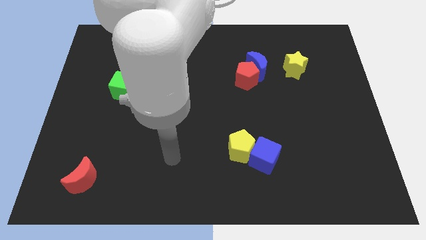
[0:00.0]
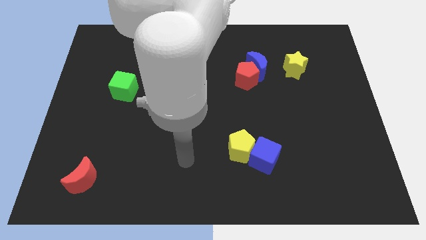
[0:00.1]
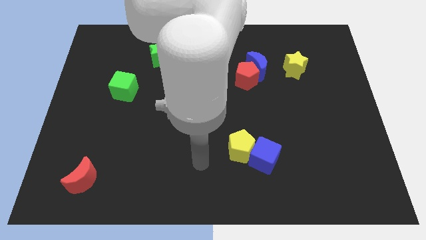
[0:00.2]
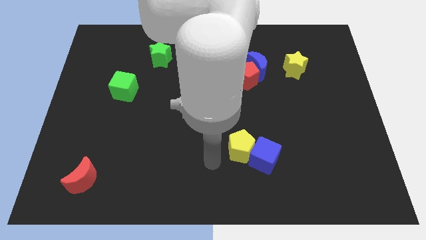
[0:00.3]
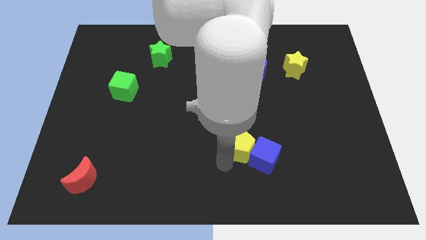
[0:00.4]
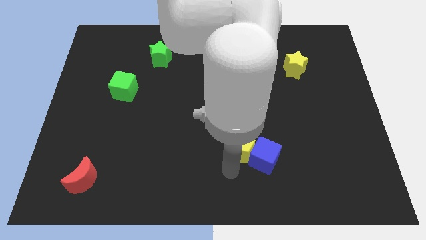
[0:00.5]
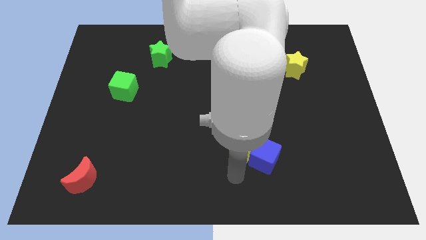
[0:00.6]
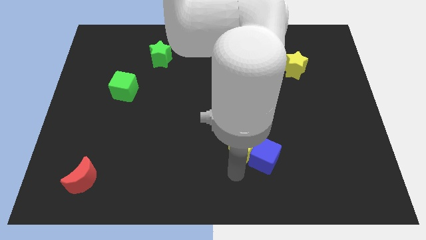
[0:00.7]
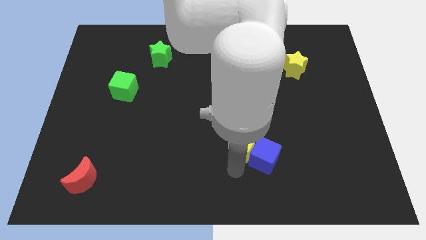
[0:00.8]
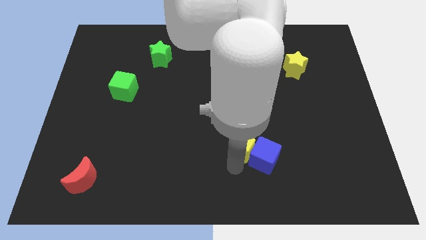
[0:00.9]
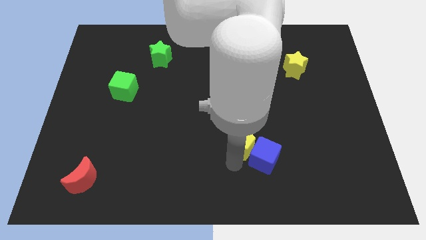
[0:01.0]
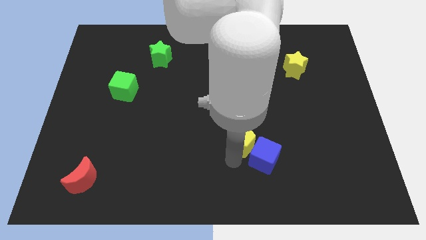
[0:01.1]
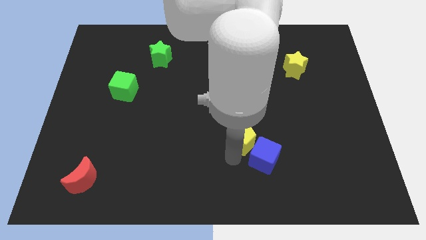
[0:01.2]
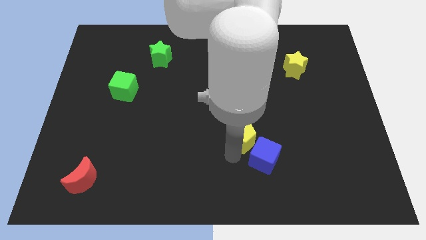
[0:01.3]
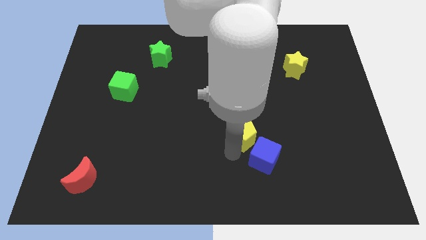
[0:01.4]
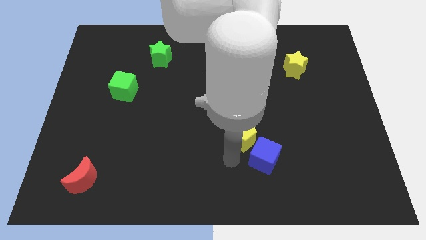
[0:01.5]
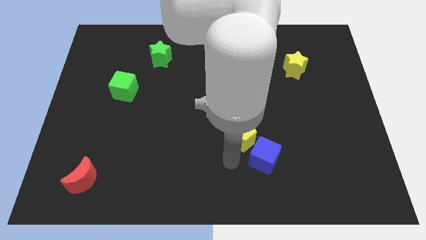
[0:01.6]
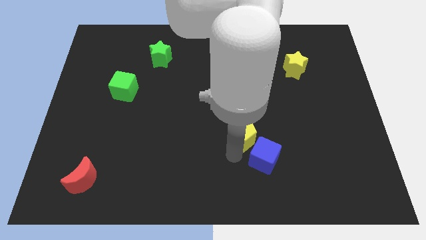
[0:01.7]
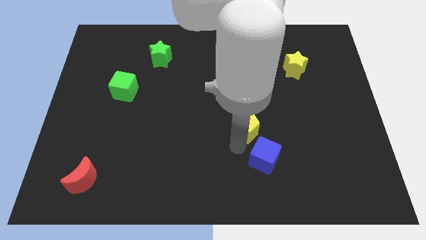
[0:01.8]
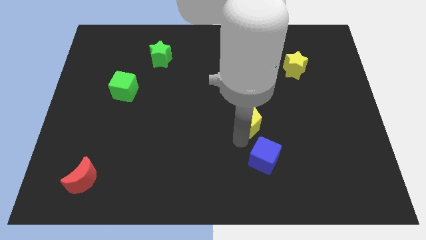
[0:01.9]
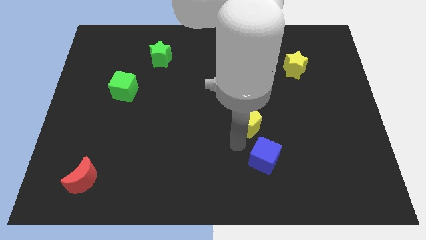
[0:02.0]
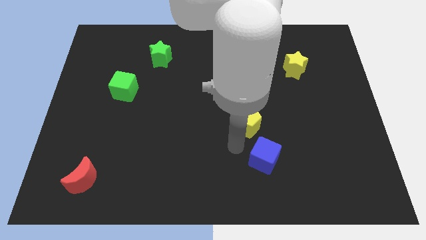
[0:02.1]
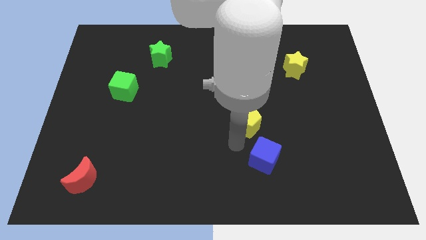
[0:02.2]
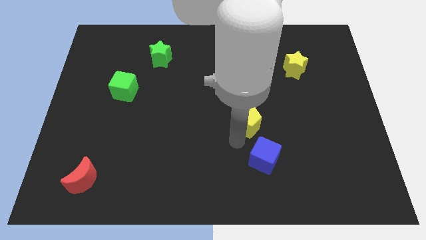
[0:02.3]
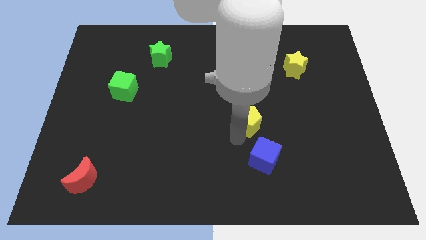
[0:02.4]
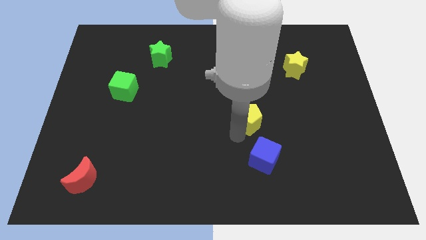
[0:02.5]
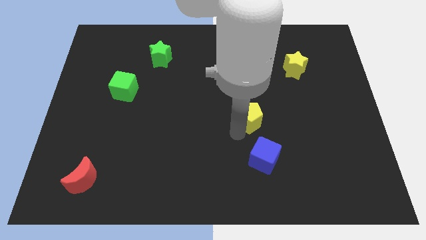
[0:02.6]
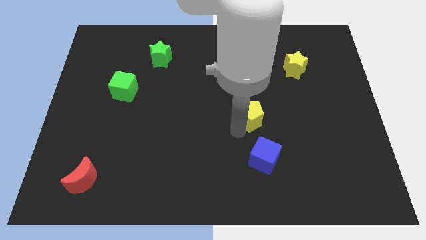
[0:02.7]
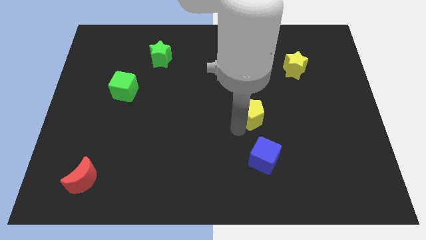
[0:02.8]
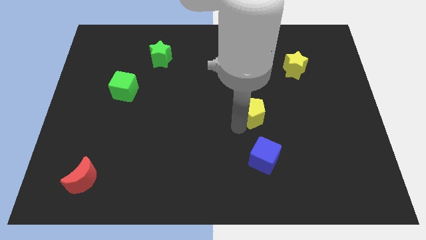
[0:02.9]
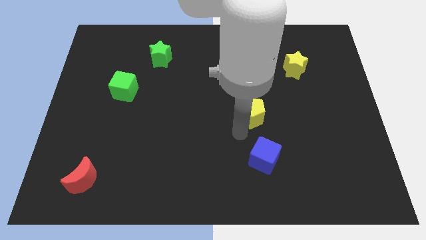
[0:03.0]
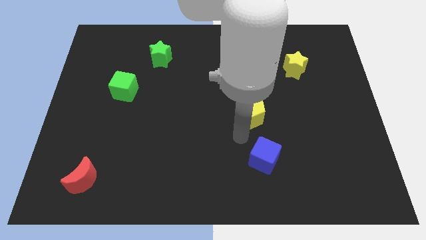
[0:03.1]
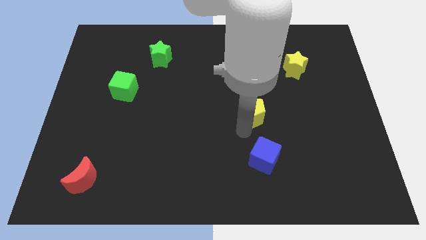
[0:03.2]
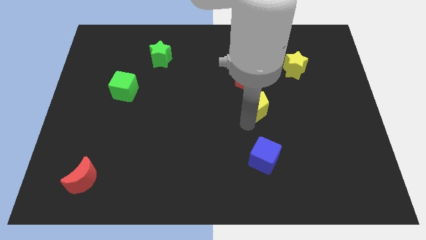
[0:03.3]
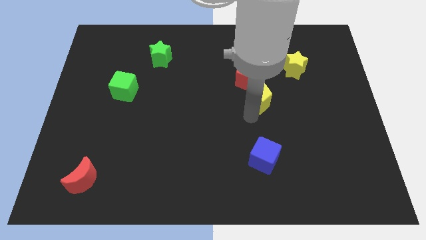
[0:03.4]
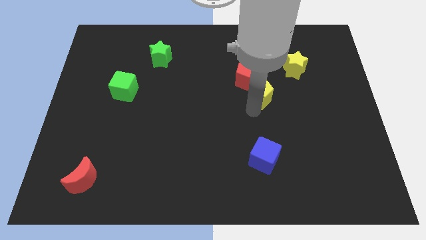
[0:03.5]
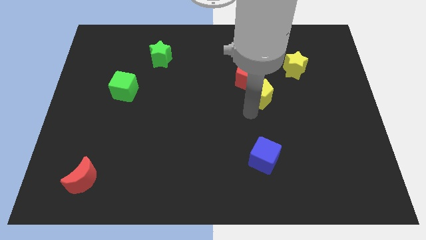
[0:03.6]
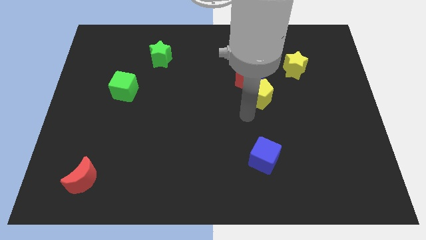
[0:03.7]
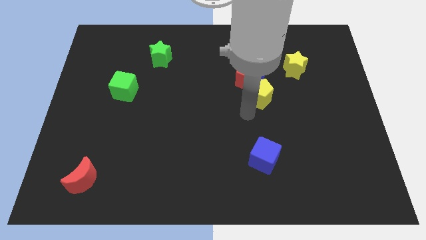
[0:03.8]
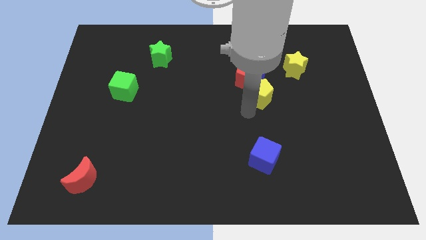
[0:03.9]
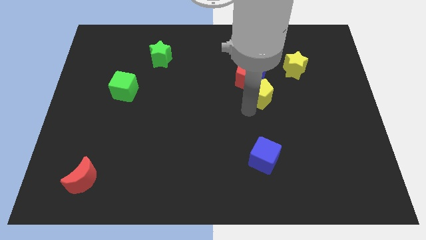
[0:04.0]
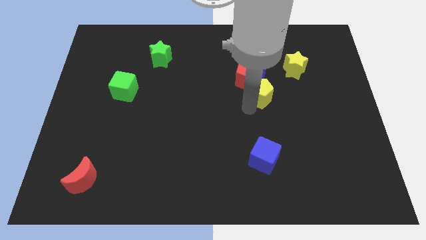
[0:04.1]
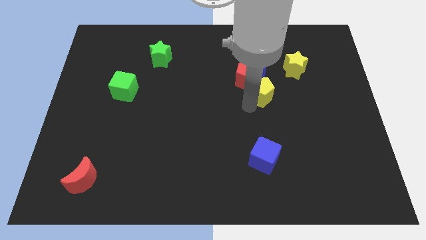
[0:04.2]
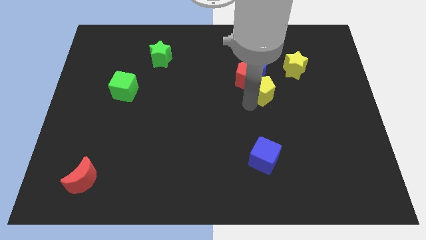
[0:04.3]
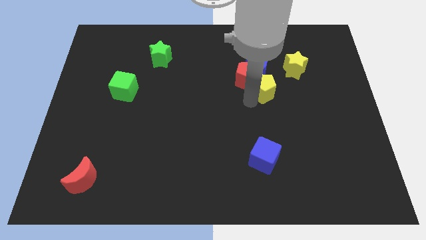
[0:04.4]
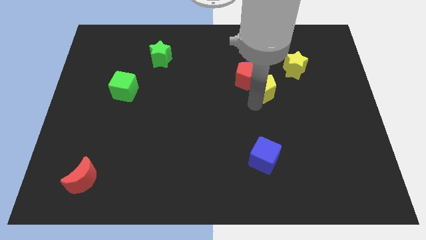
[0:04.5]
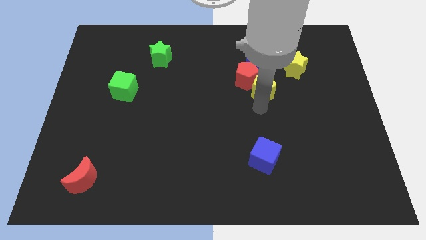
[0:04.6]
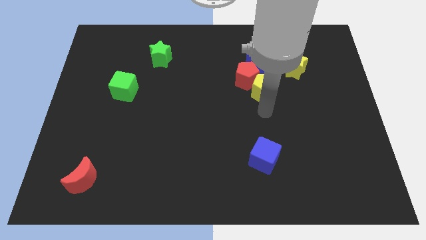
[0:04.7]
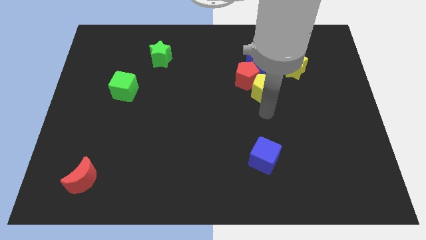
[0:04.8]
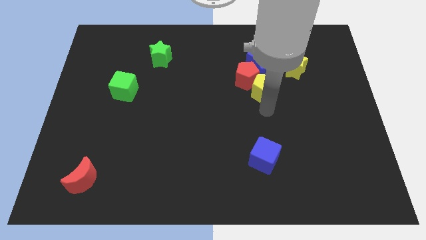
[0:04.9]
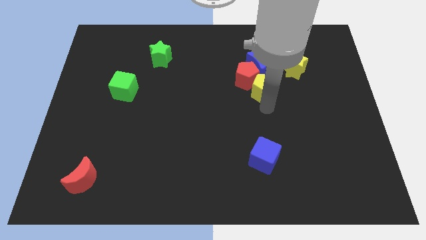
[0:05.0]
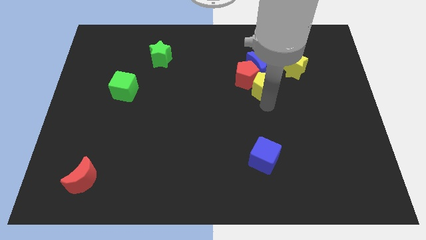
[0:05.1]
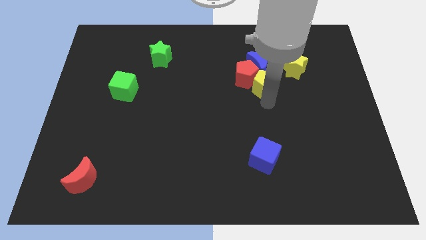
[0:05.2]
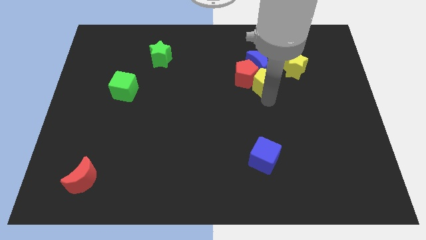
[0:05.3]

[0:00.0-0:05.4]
move the yellow pentagon close to the blue moon

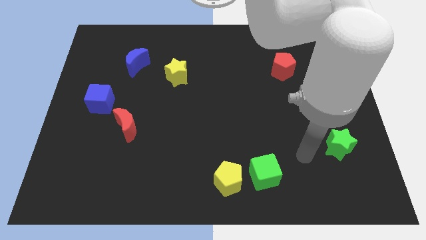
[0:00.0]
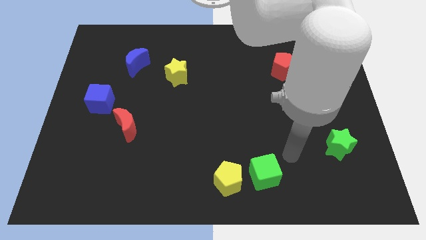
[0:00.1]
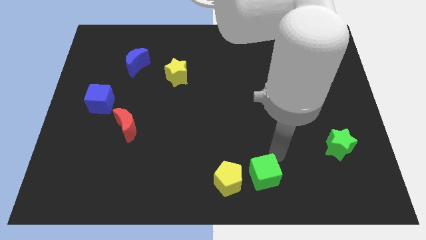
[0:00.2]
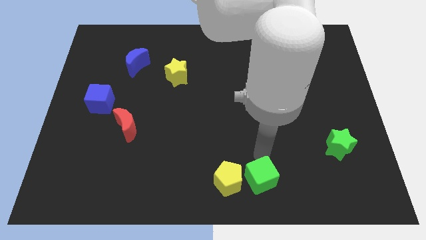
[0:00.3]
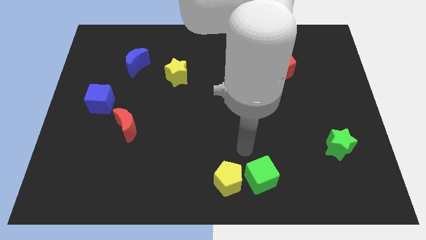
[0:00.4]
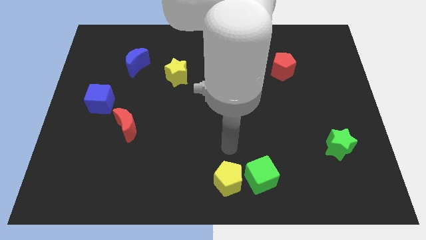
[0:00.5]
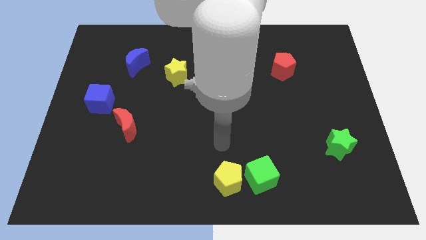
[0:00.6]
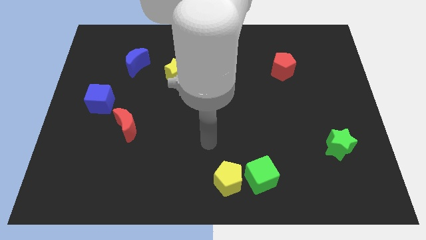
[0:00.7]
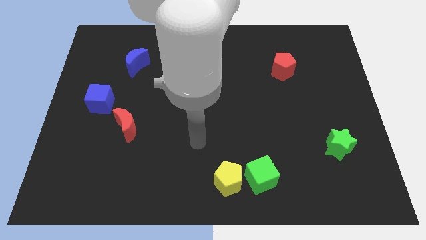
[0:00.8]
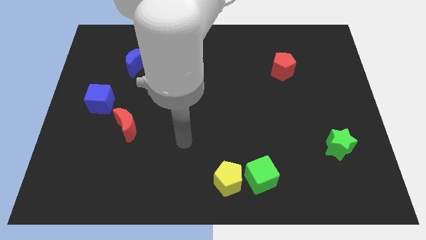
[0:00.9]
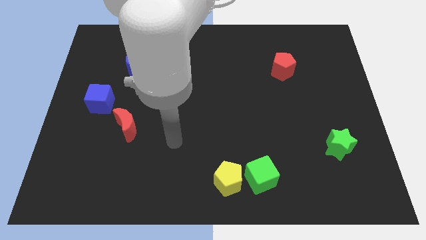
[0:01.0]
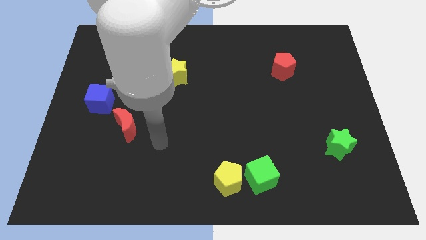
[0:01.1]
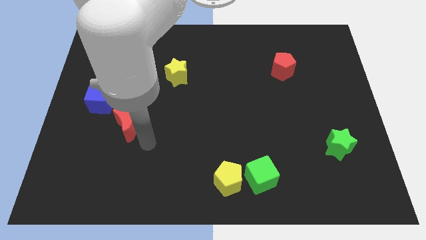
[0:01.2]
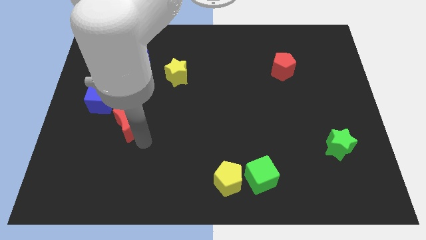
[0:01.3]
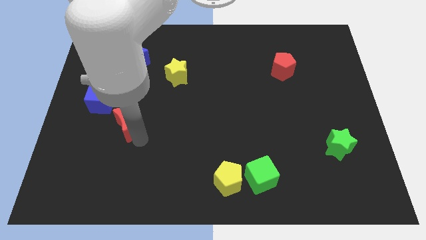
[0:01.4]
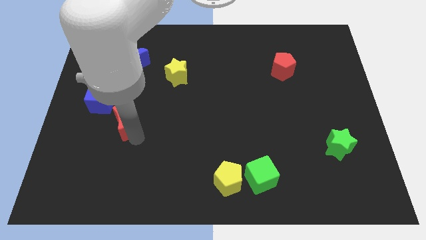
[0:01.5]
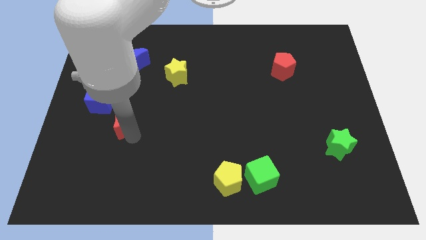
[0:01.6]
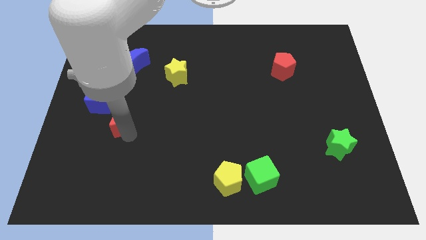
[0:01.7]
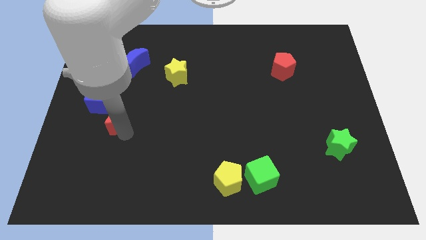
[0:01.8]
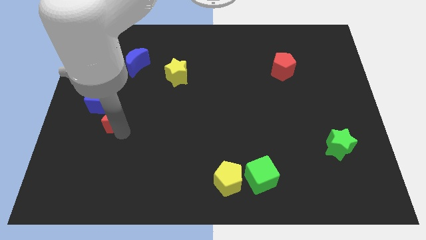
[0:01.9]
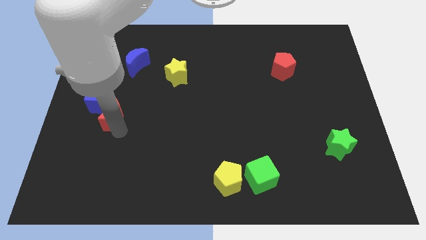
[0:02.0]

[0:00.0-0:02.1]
slide the red moon close to the blue cube

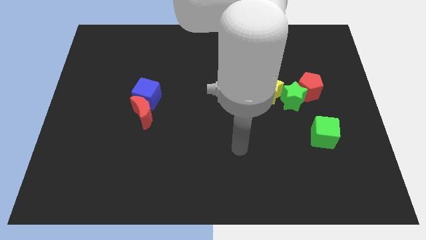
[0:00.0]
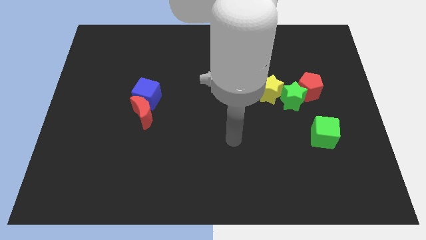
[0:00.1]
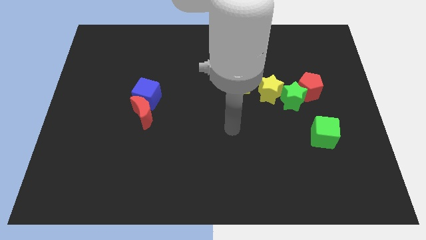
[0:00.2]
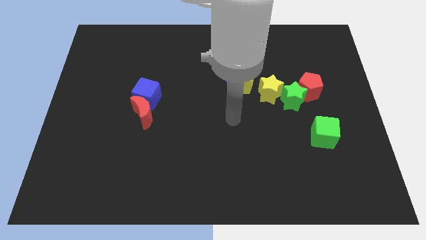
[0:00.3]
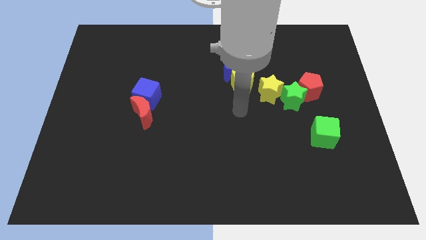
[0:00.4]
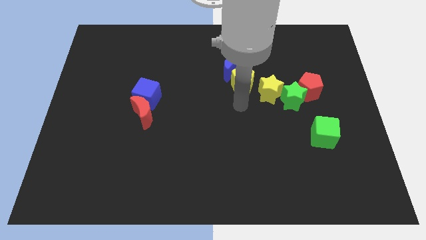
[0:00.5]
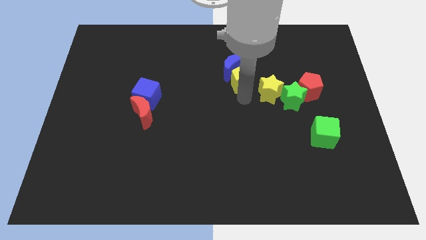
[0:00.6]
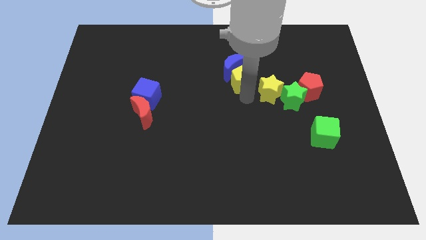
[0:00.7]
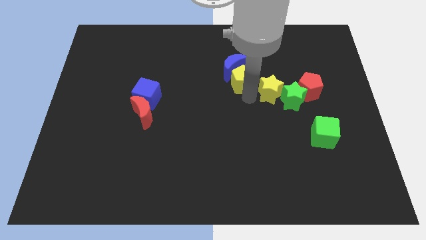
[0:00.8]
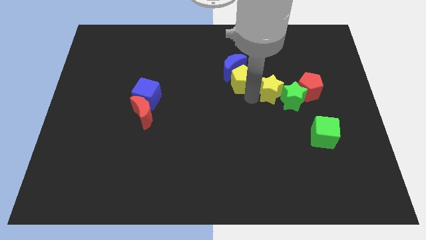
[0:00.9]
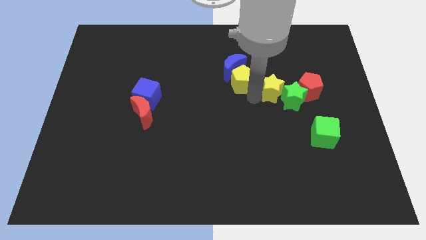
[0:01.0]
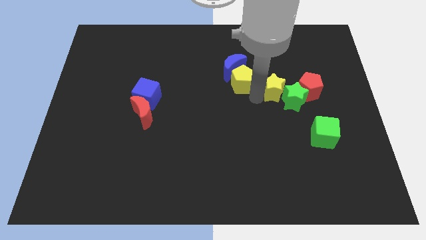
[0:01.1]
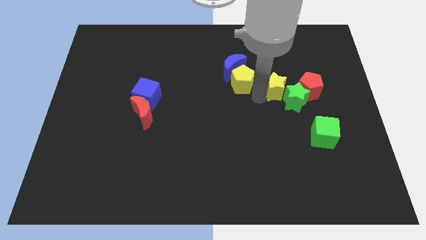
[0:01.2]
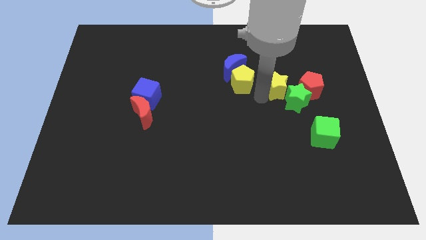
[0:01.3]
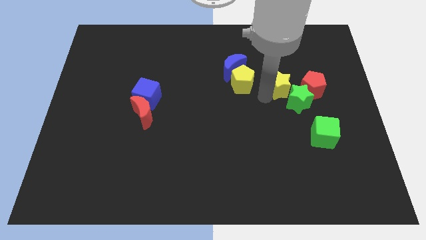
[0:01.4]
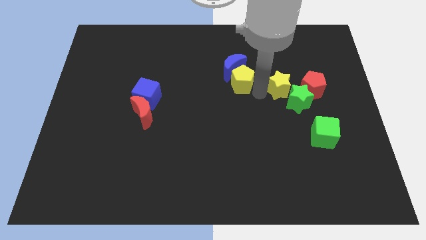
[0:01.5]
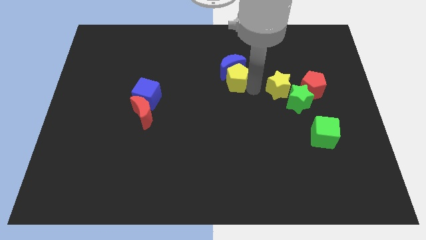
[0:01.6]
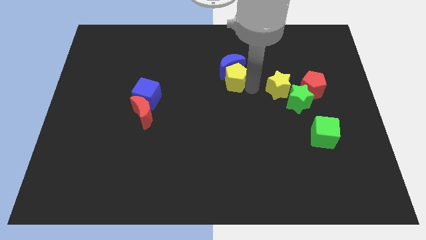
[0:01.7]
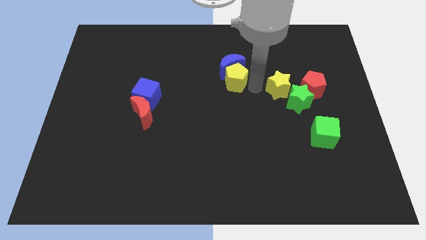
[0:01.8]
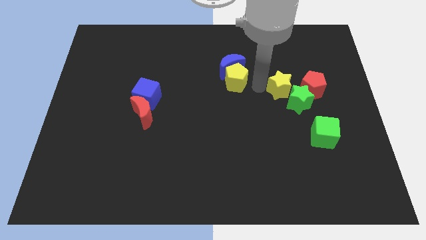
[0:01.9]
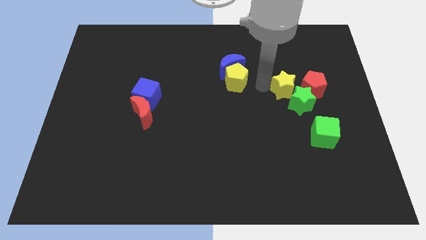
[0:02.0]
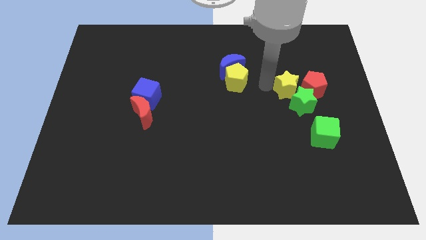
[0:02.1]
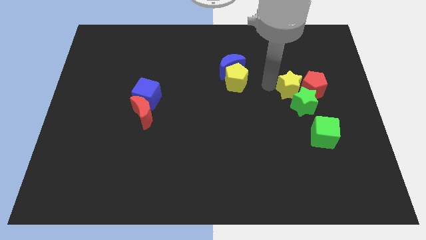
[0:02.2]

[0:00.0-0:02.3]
put the yellow star close to the red pentagon
